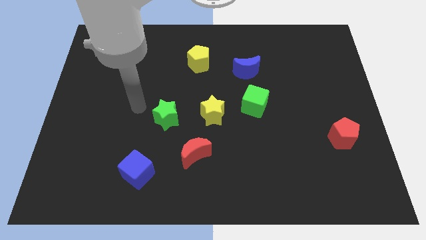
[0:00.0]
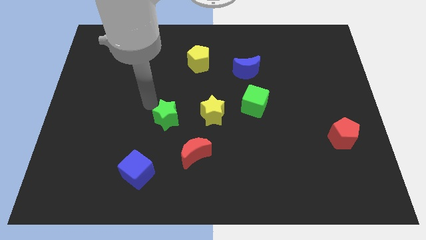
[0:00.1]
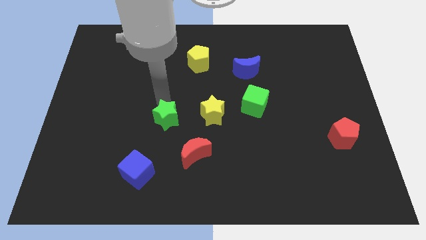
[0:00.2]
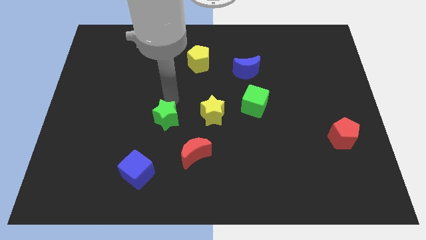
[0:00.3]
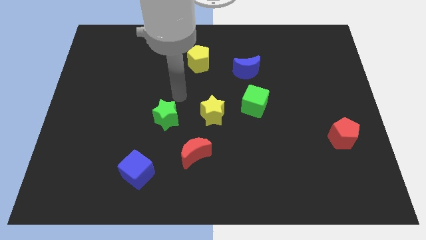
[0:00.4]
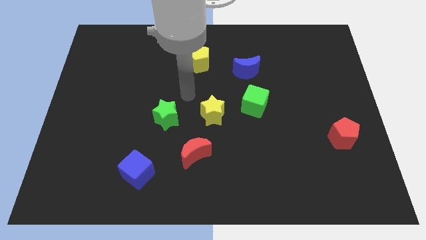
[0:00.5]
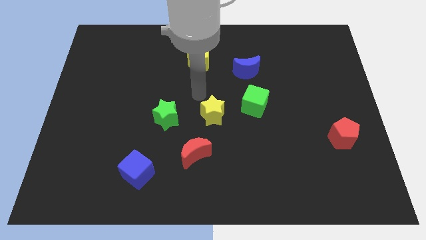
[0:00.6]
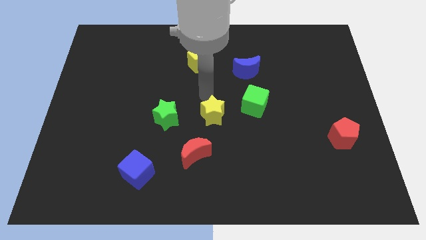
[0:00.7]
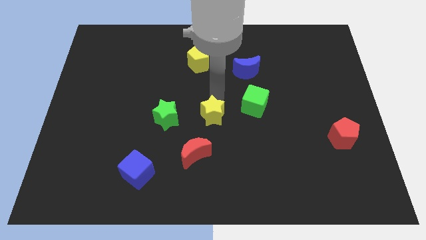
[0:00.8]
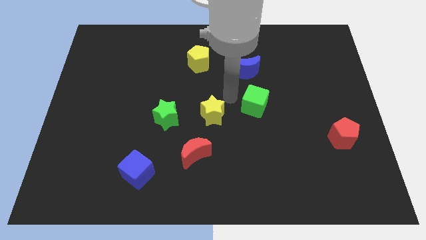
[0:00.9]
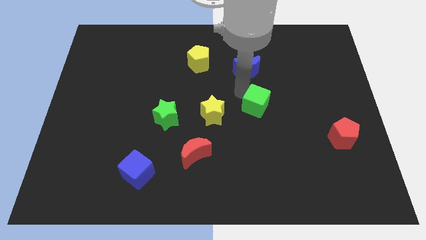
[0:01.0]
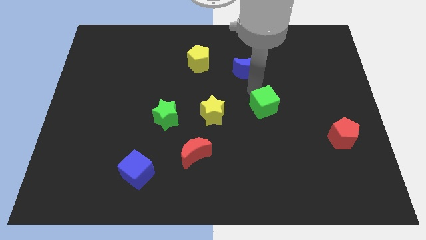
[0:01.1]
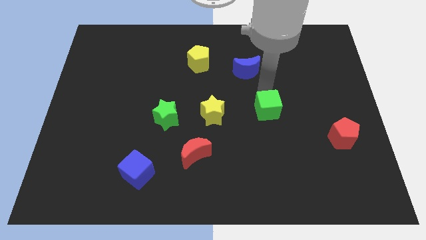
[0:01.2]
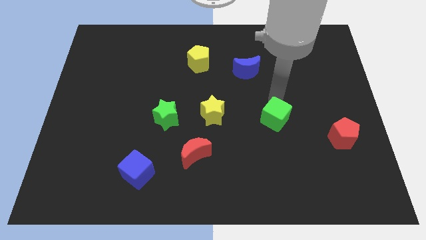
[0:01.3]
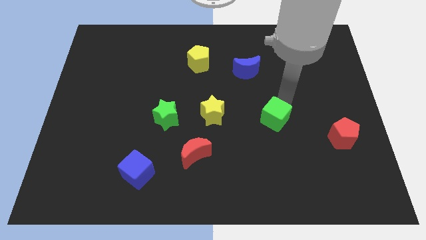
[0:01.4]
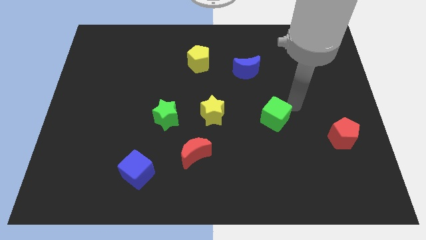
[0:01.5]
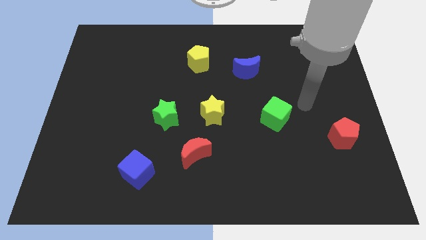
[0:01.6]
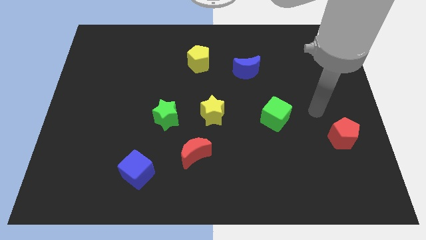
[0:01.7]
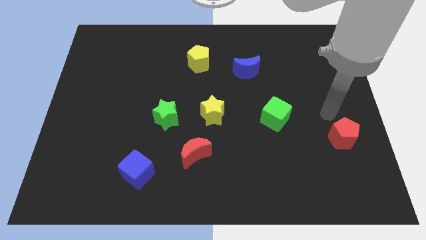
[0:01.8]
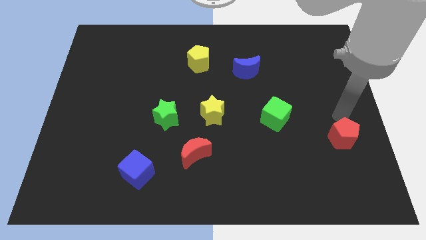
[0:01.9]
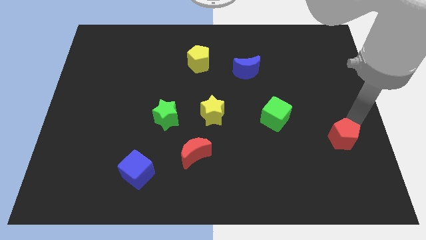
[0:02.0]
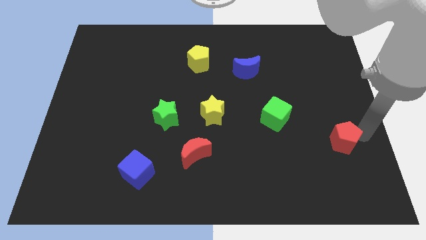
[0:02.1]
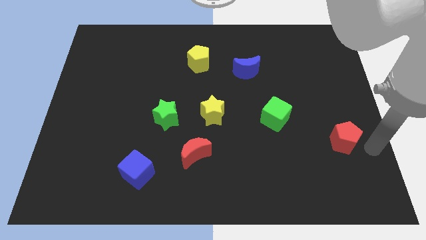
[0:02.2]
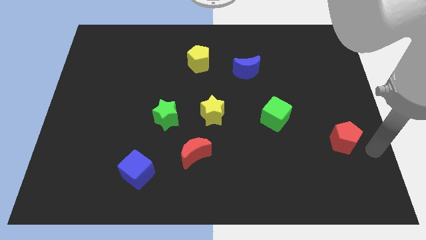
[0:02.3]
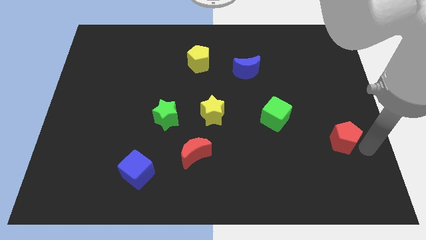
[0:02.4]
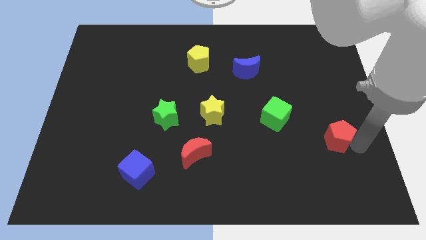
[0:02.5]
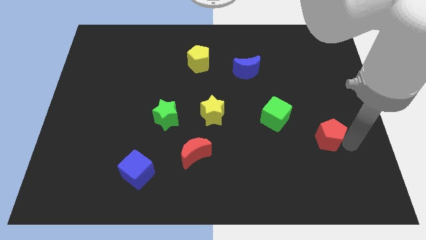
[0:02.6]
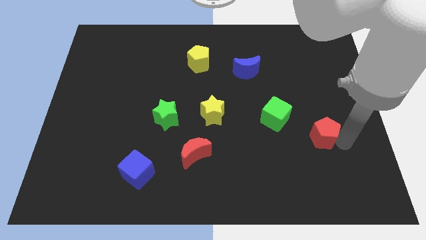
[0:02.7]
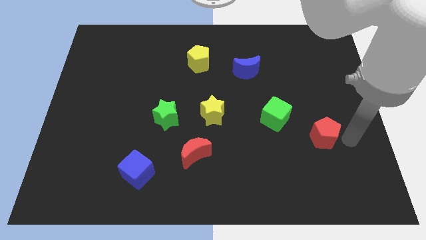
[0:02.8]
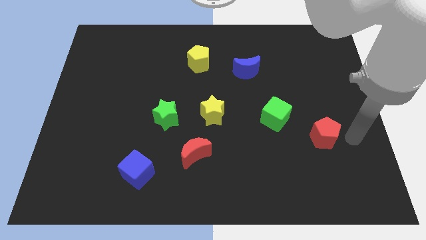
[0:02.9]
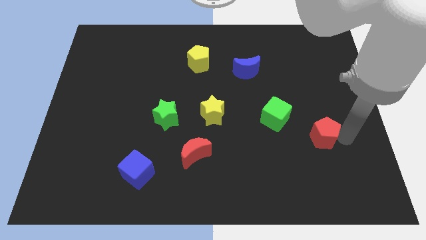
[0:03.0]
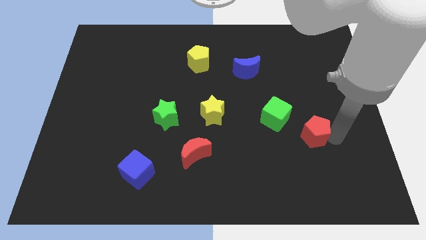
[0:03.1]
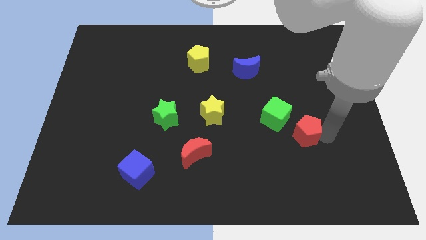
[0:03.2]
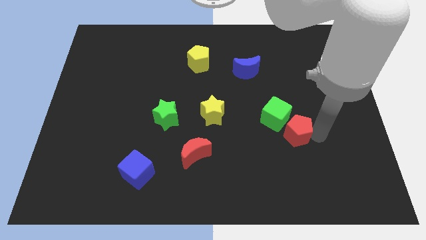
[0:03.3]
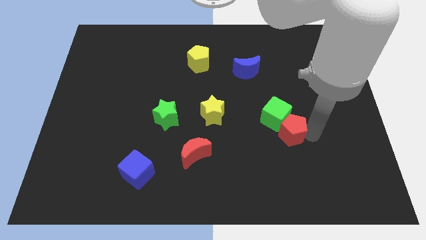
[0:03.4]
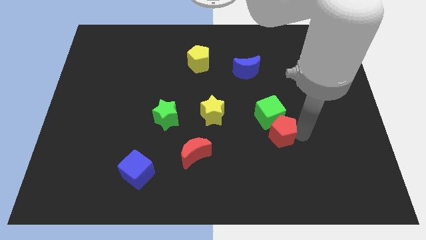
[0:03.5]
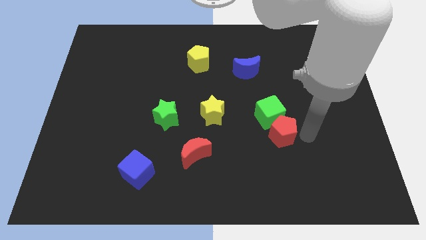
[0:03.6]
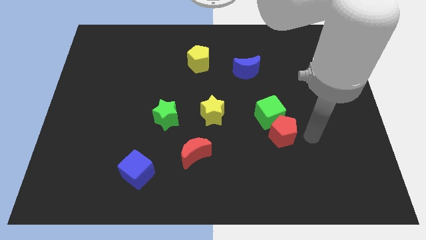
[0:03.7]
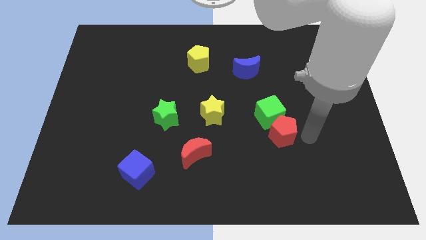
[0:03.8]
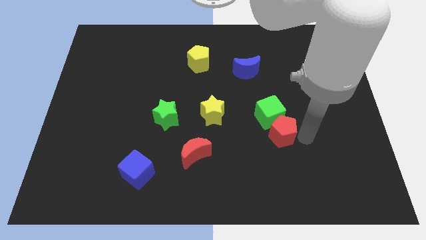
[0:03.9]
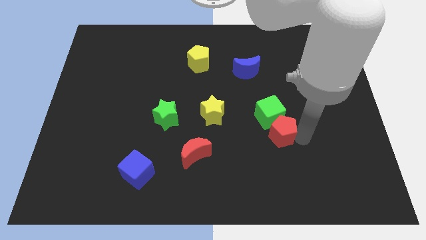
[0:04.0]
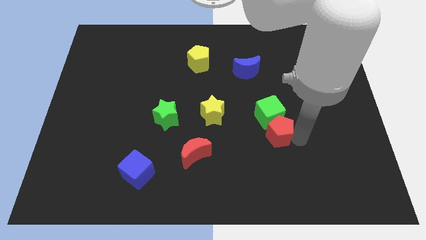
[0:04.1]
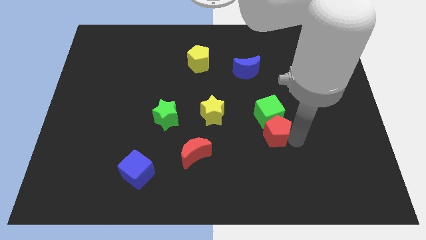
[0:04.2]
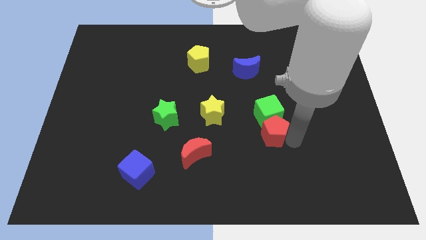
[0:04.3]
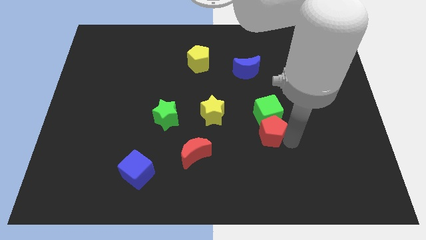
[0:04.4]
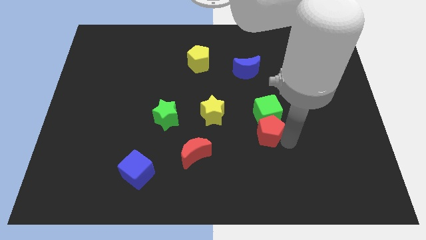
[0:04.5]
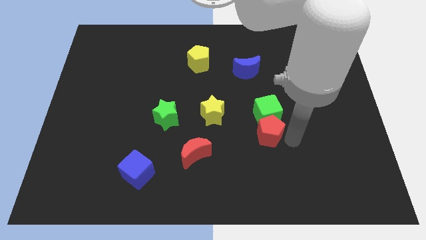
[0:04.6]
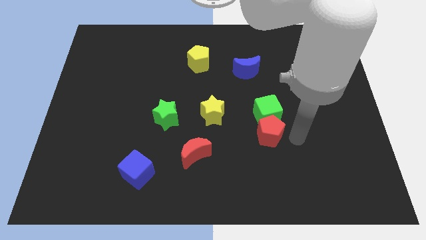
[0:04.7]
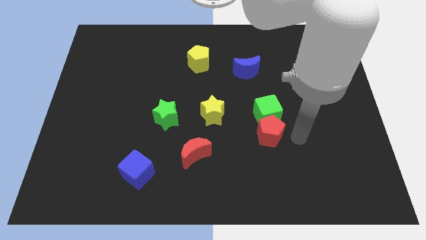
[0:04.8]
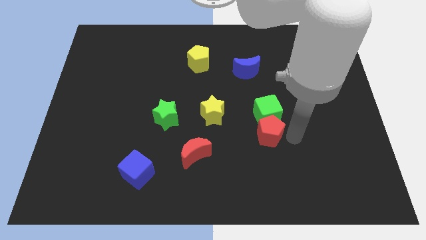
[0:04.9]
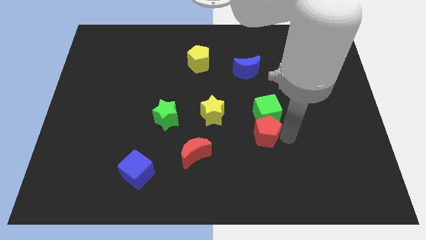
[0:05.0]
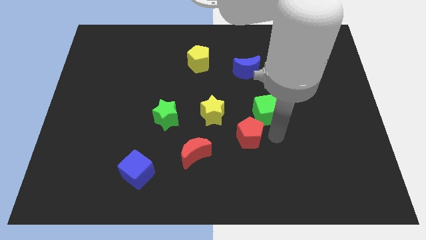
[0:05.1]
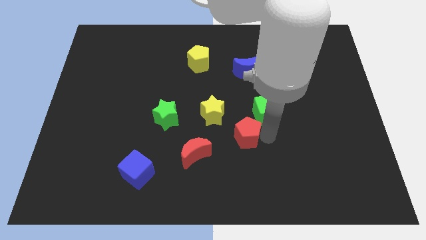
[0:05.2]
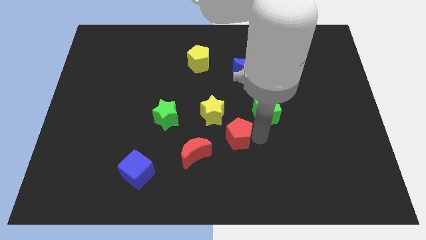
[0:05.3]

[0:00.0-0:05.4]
move the red pentagon to the top right side of the red moon

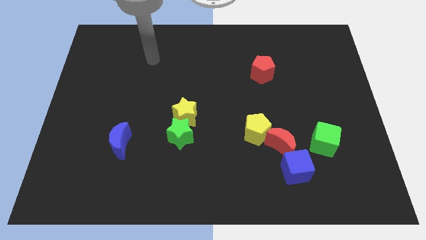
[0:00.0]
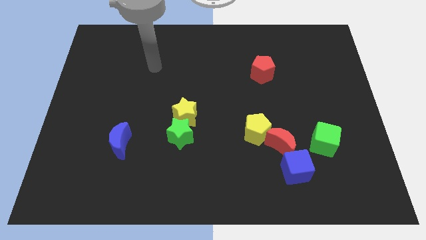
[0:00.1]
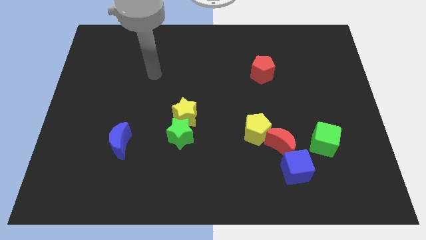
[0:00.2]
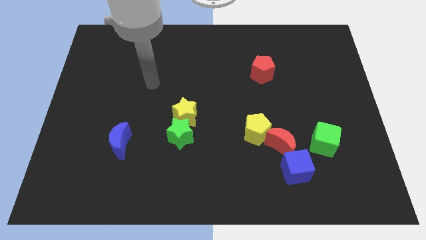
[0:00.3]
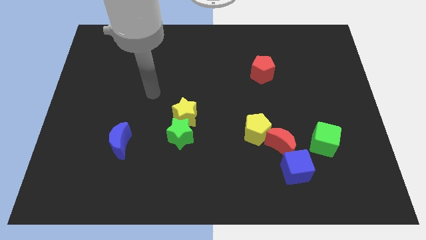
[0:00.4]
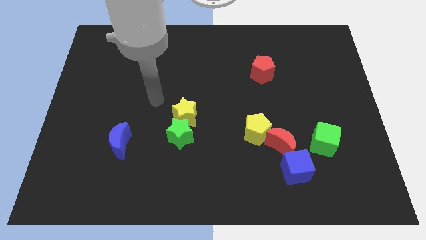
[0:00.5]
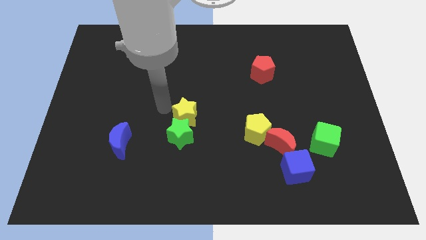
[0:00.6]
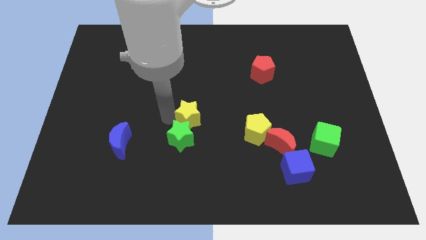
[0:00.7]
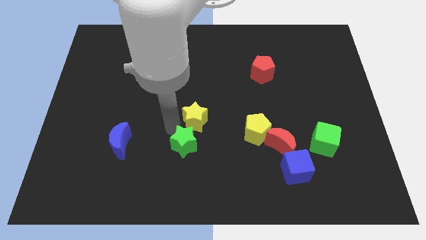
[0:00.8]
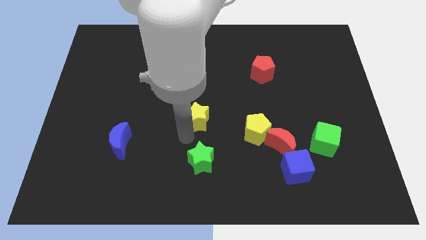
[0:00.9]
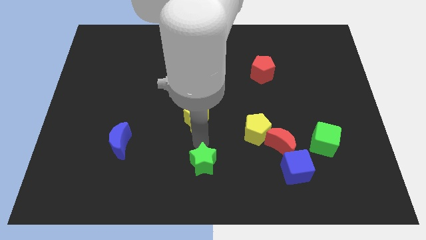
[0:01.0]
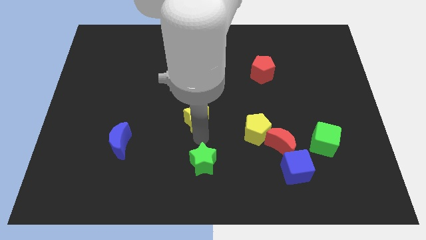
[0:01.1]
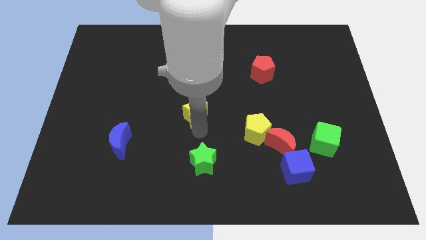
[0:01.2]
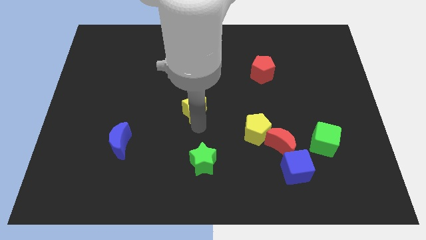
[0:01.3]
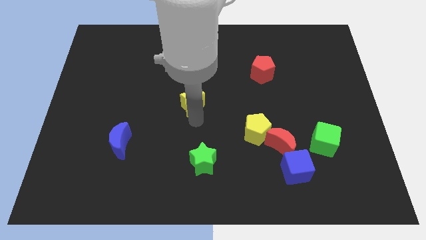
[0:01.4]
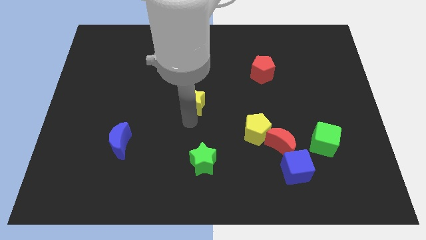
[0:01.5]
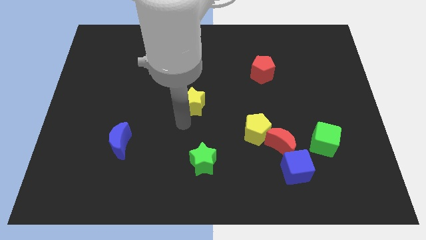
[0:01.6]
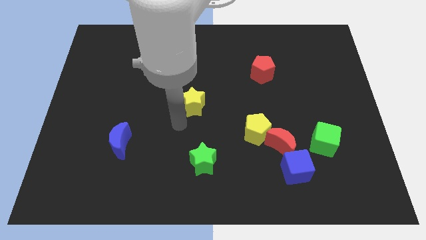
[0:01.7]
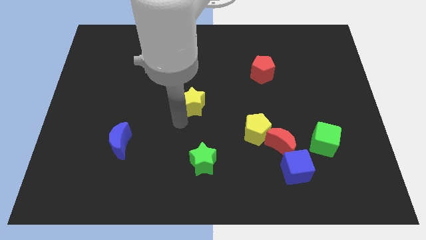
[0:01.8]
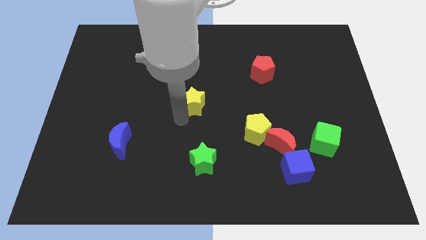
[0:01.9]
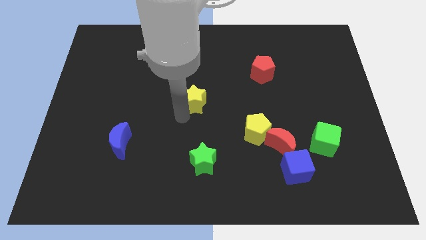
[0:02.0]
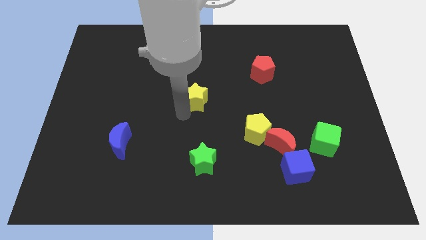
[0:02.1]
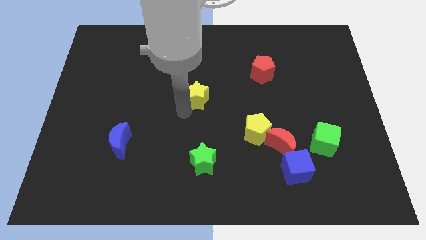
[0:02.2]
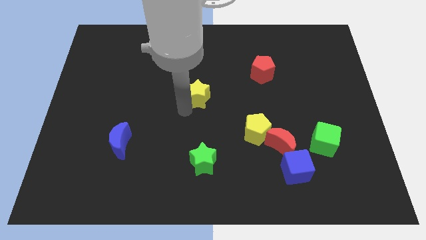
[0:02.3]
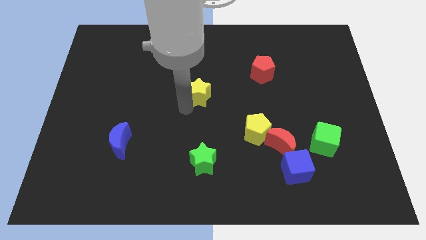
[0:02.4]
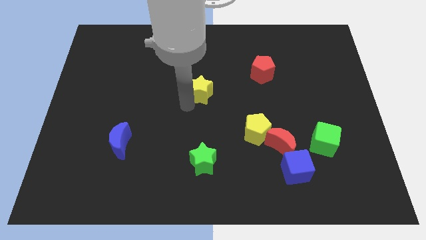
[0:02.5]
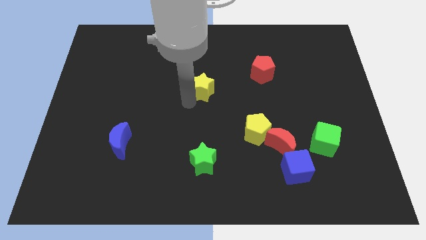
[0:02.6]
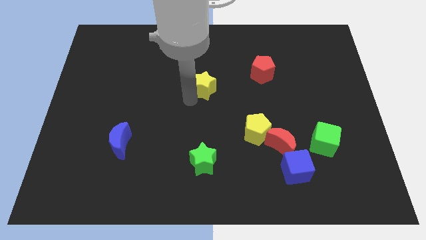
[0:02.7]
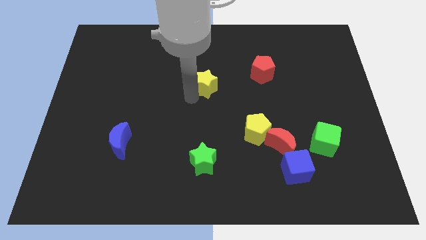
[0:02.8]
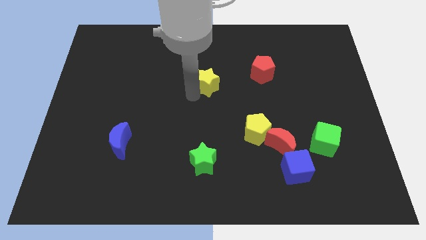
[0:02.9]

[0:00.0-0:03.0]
slide the yellow star just left of the red pentagon
